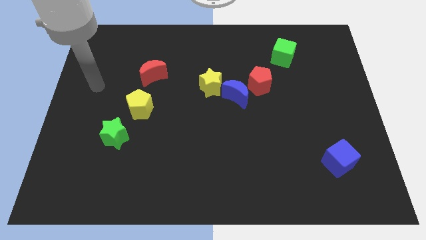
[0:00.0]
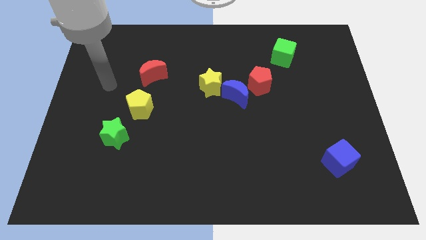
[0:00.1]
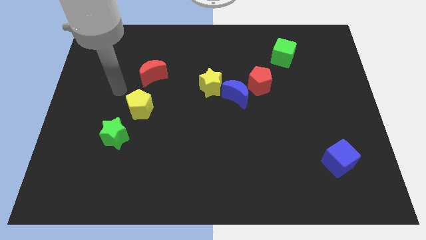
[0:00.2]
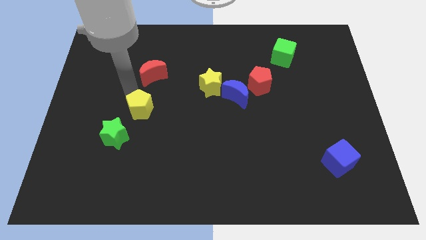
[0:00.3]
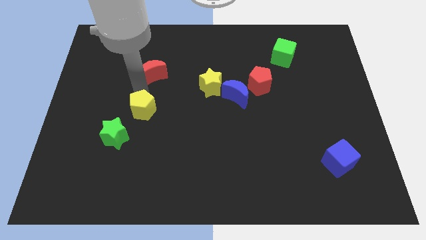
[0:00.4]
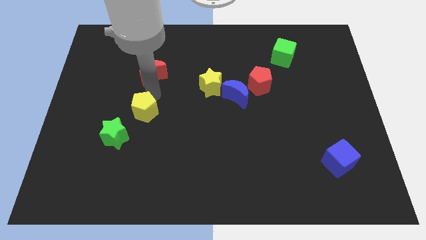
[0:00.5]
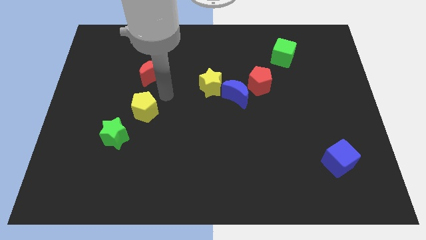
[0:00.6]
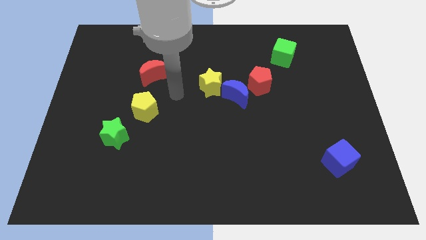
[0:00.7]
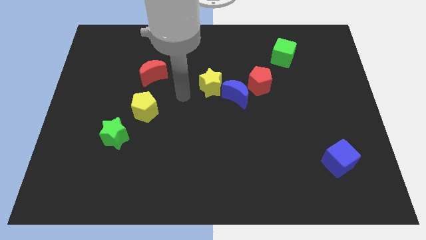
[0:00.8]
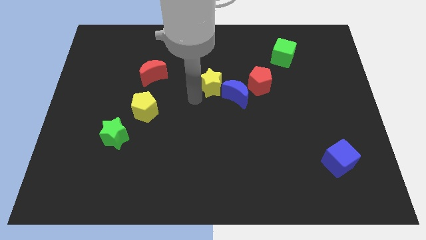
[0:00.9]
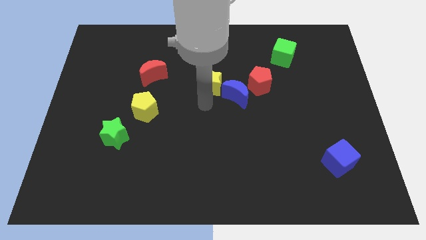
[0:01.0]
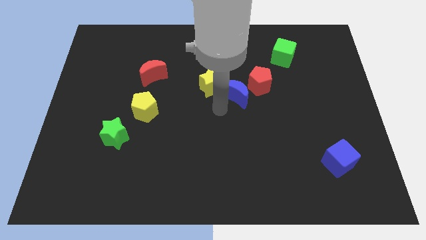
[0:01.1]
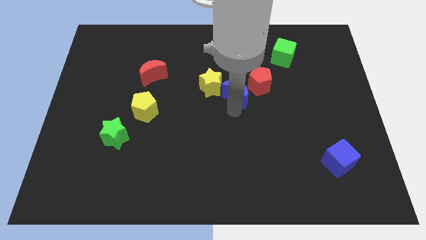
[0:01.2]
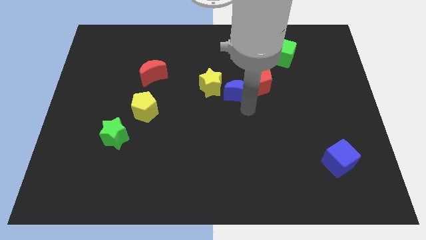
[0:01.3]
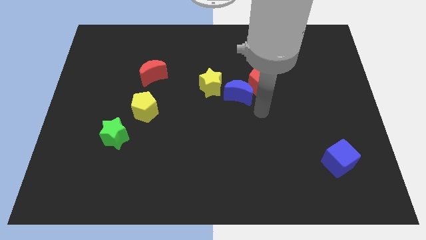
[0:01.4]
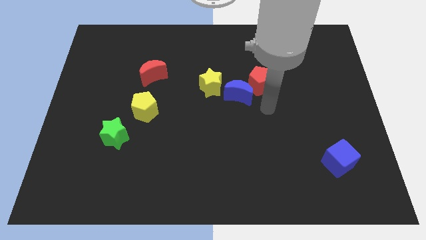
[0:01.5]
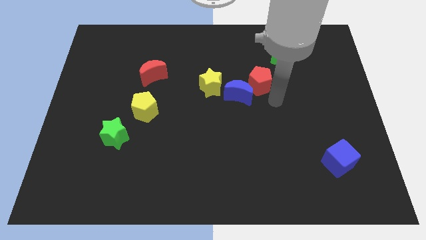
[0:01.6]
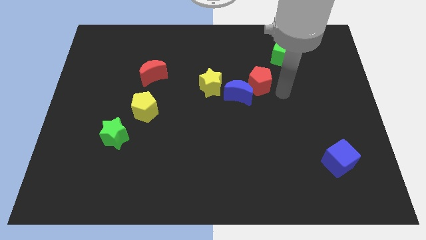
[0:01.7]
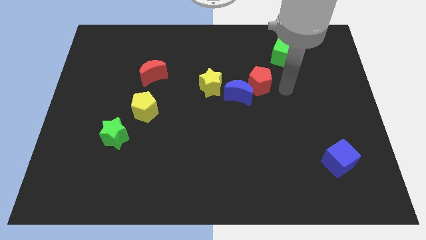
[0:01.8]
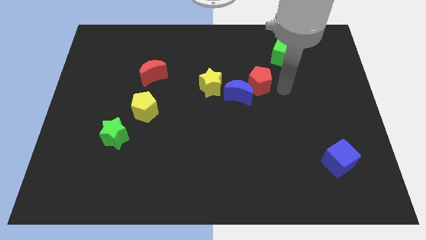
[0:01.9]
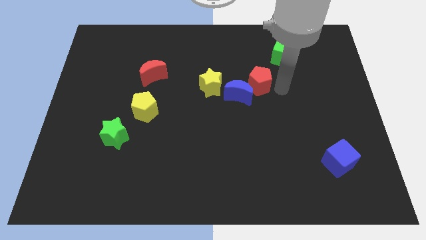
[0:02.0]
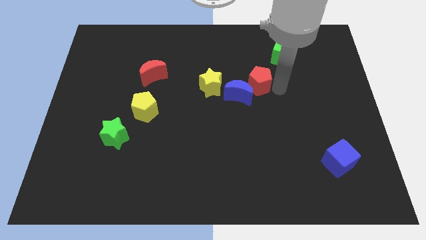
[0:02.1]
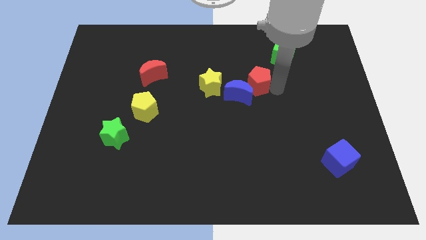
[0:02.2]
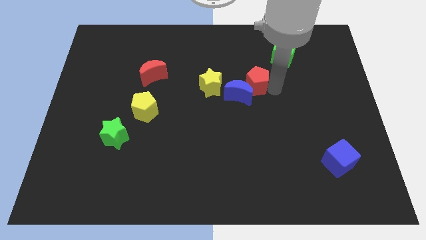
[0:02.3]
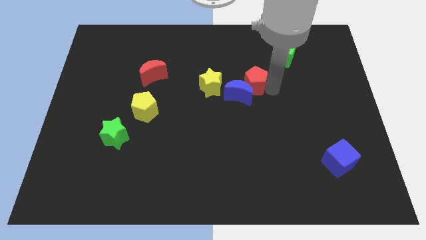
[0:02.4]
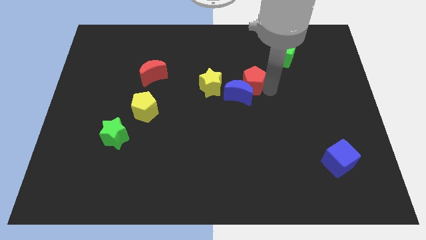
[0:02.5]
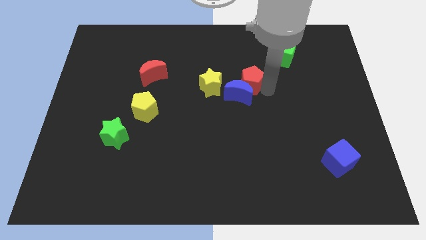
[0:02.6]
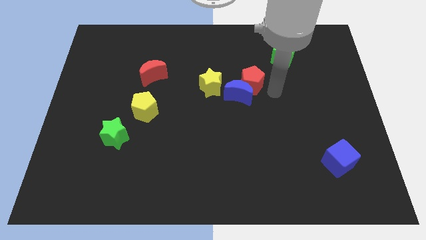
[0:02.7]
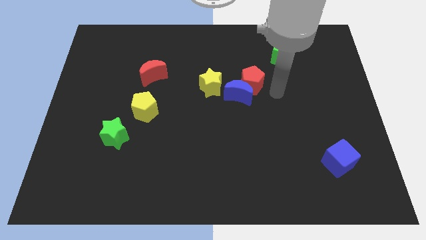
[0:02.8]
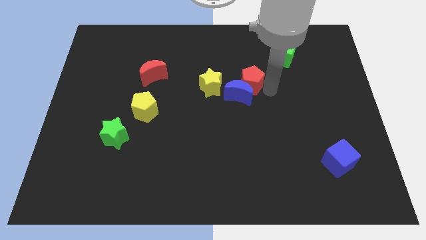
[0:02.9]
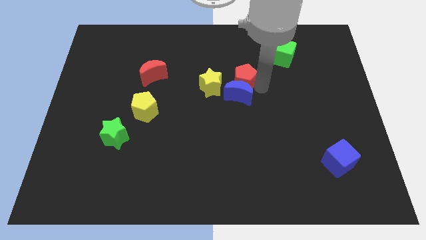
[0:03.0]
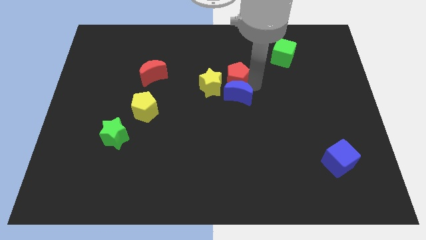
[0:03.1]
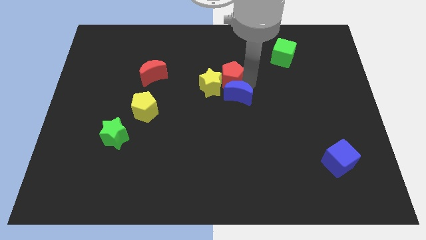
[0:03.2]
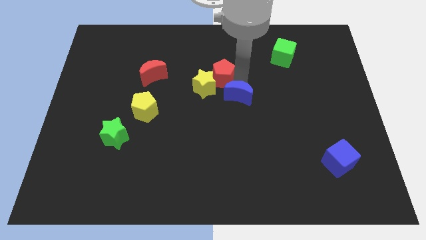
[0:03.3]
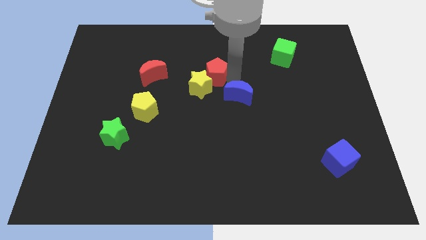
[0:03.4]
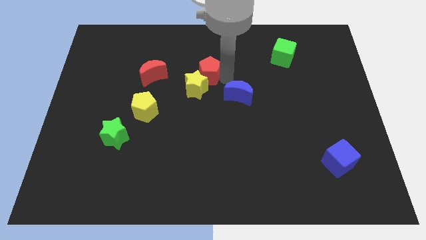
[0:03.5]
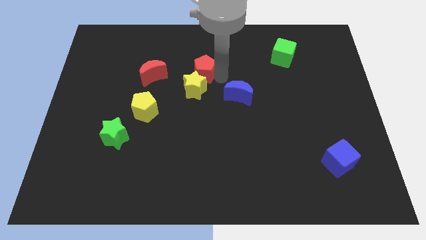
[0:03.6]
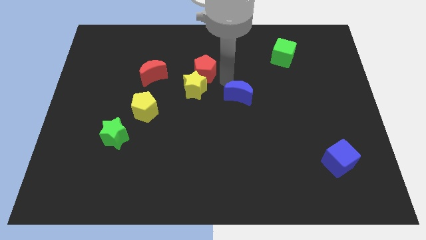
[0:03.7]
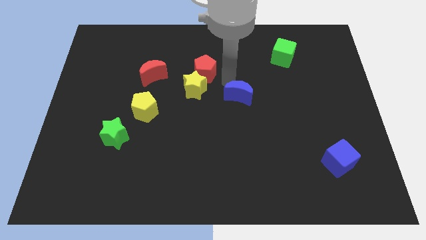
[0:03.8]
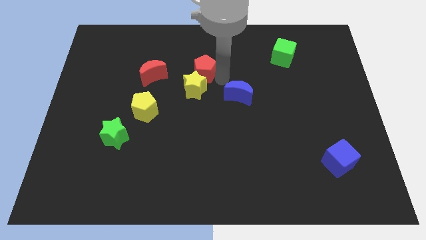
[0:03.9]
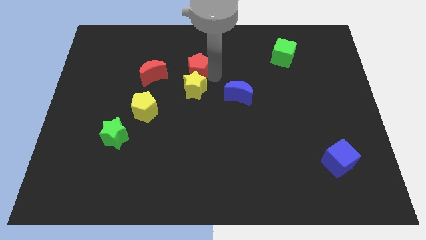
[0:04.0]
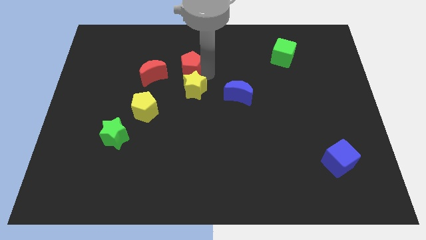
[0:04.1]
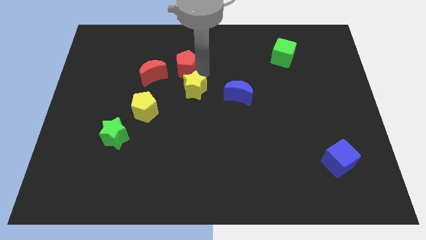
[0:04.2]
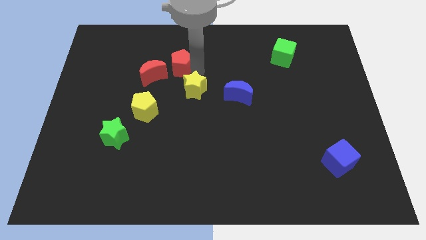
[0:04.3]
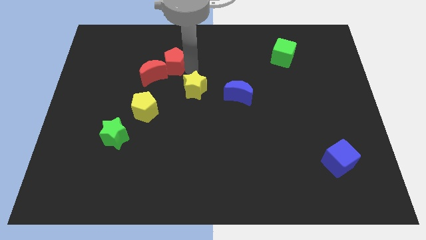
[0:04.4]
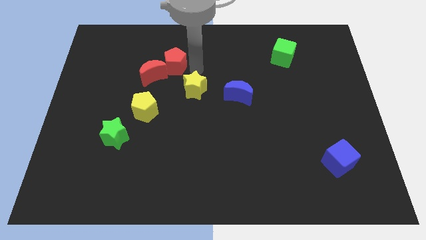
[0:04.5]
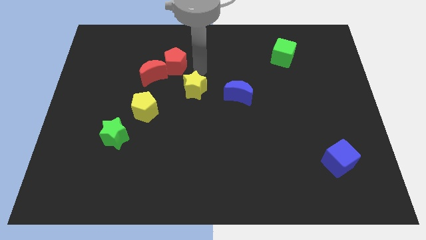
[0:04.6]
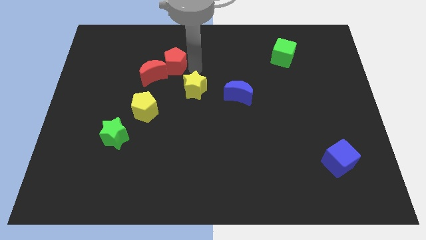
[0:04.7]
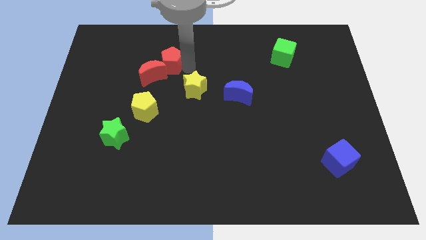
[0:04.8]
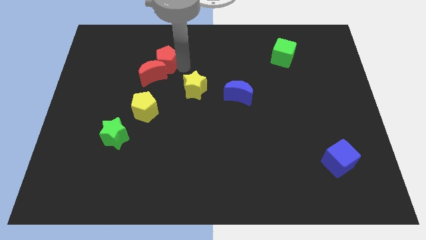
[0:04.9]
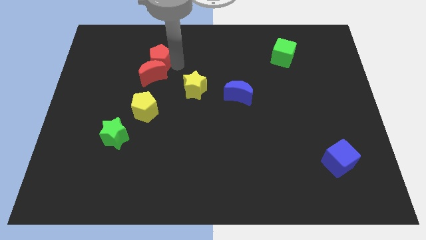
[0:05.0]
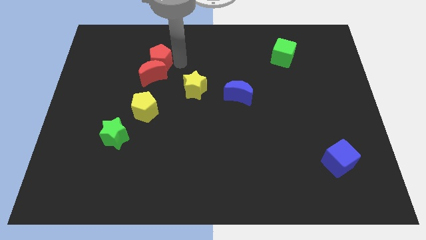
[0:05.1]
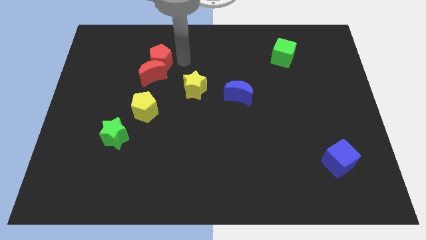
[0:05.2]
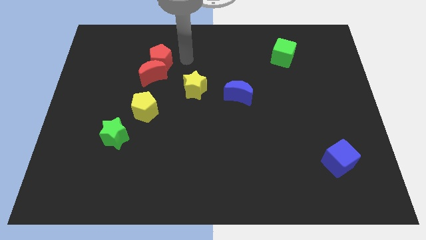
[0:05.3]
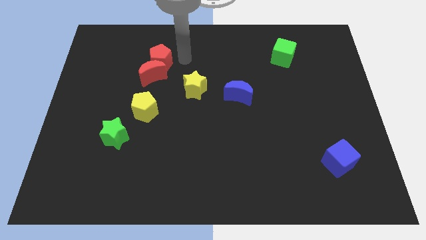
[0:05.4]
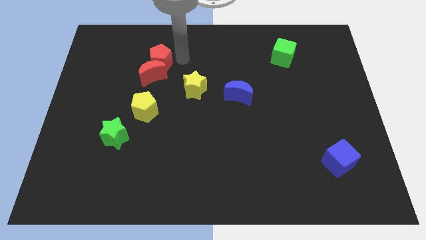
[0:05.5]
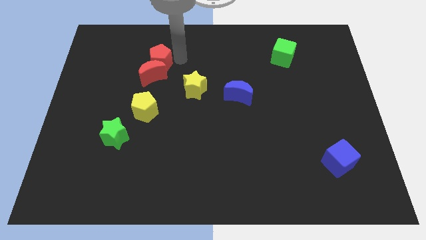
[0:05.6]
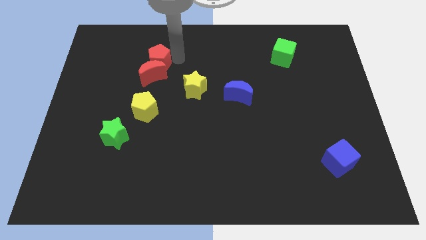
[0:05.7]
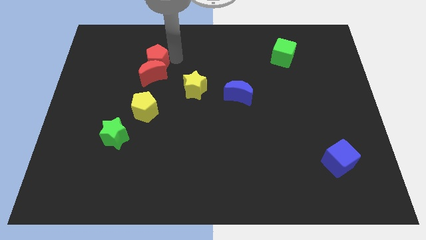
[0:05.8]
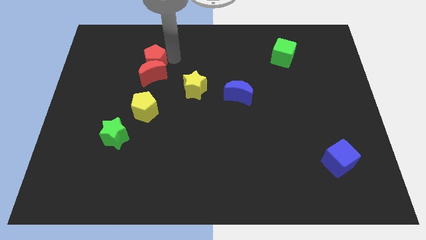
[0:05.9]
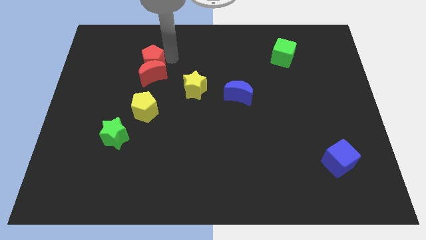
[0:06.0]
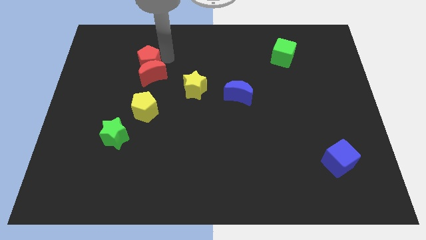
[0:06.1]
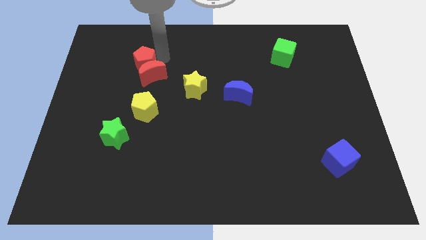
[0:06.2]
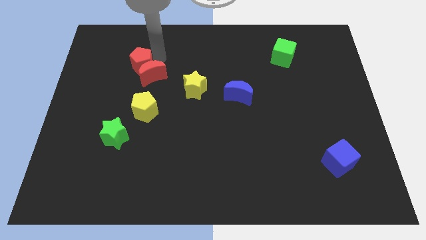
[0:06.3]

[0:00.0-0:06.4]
slide the red pentagon just left of the red moon
